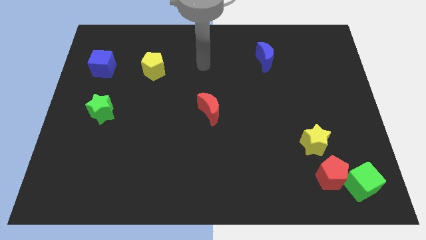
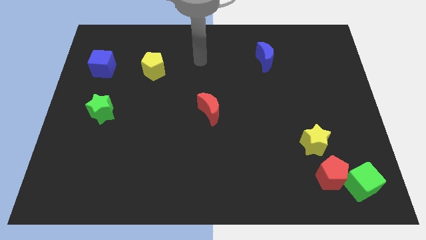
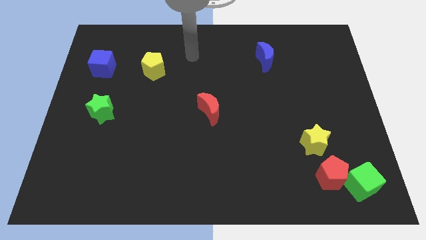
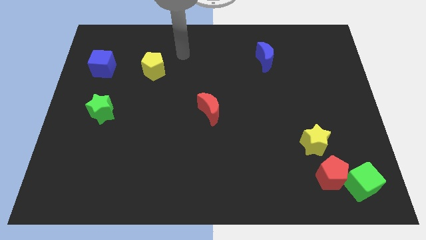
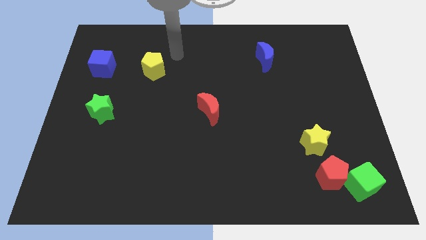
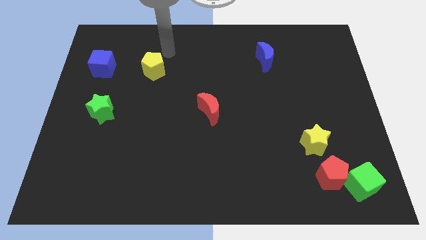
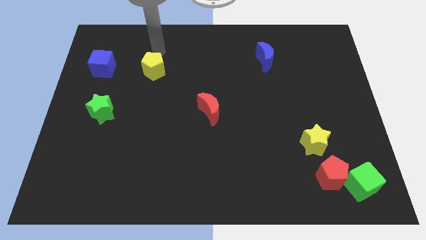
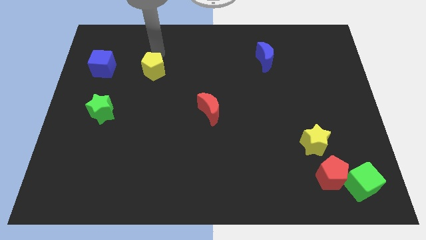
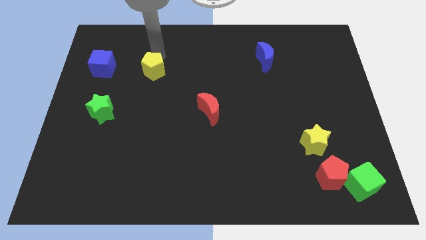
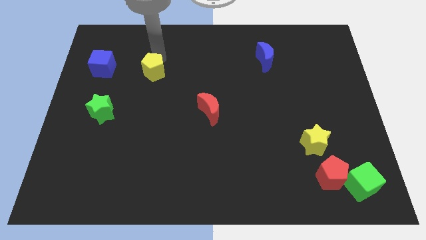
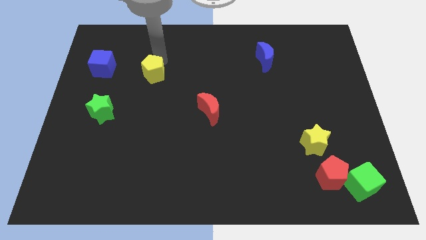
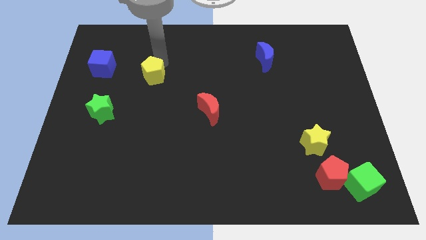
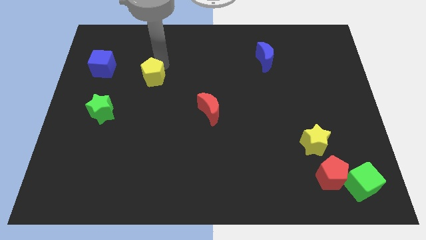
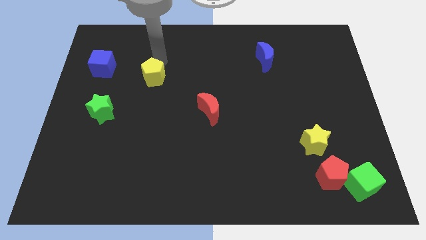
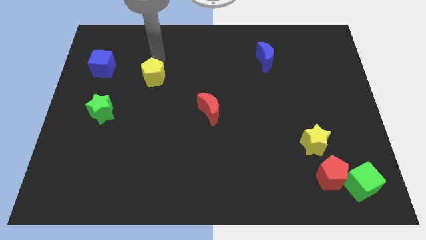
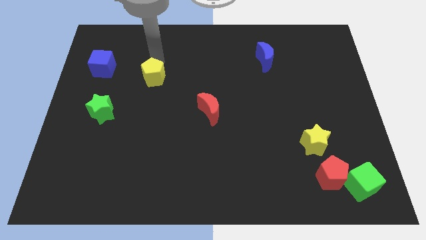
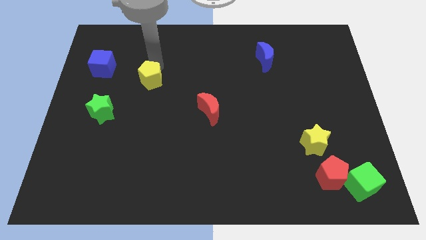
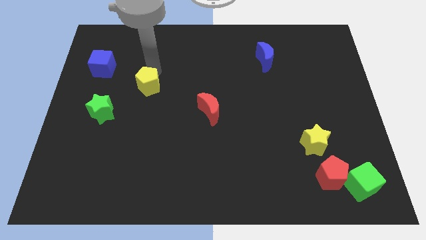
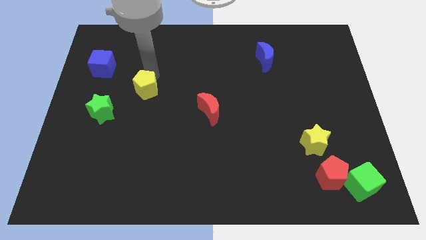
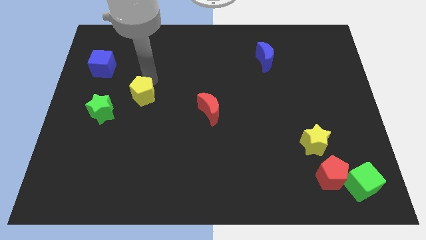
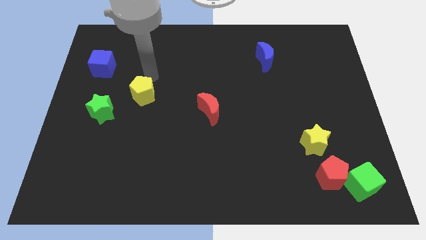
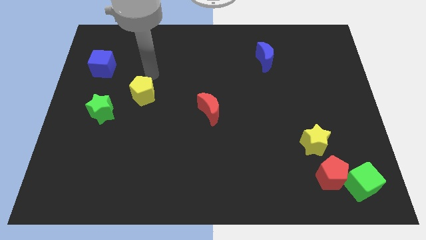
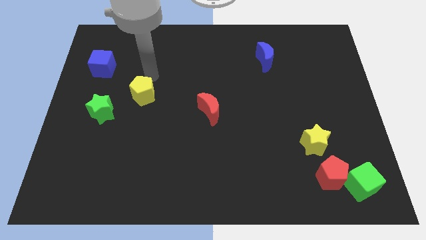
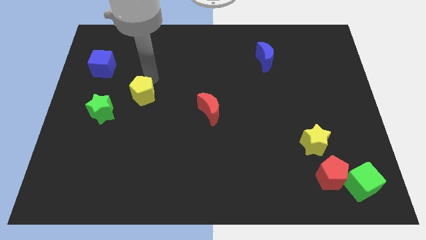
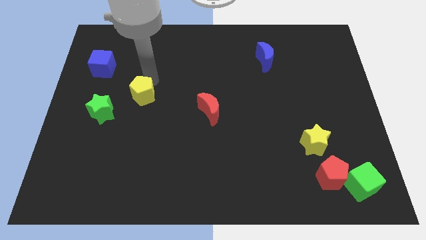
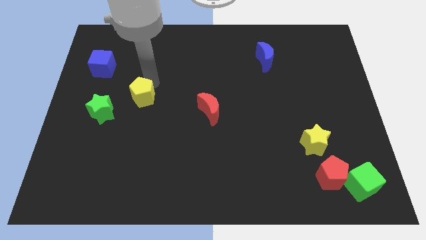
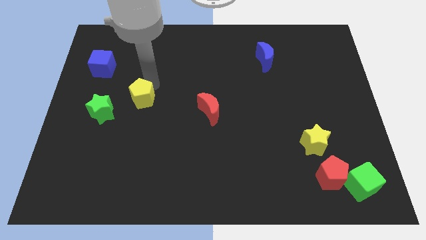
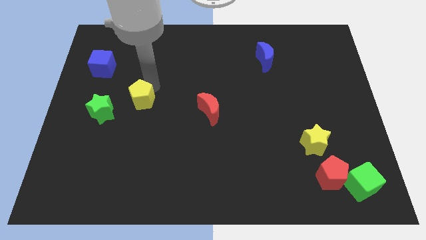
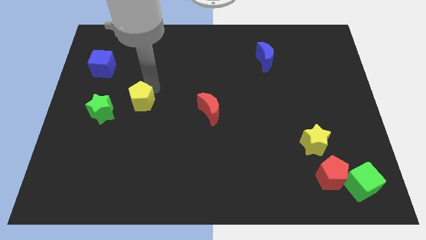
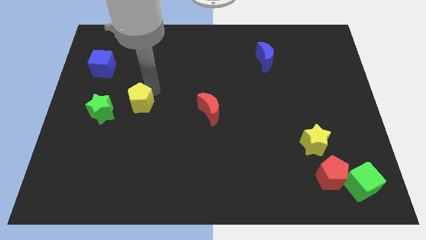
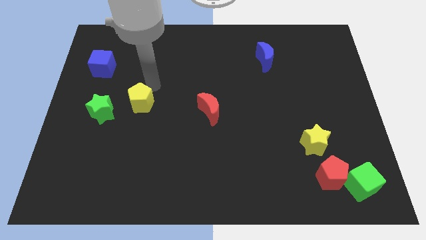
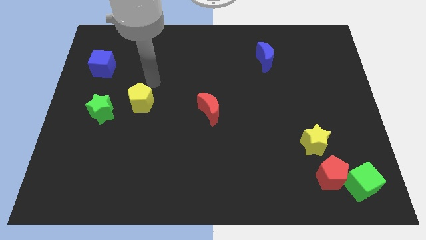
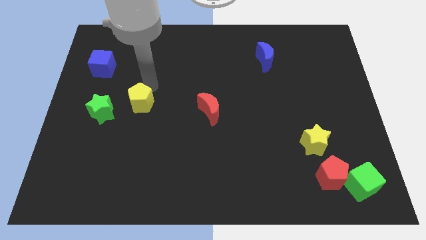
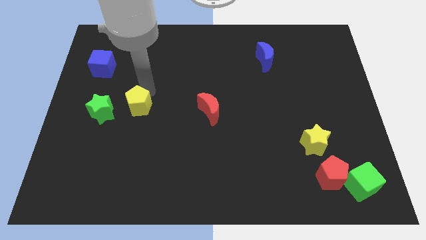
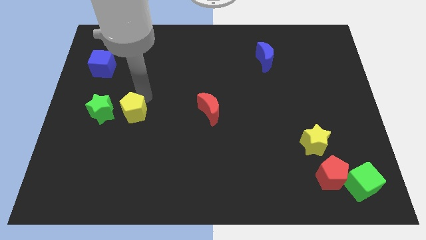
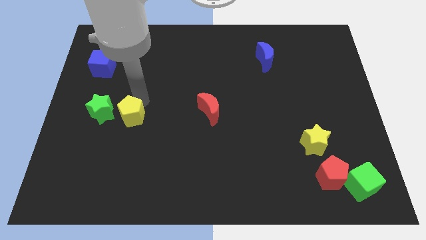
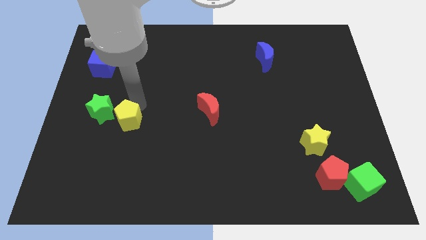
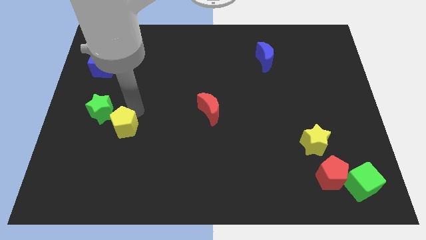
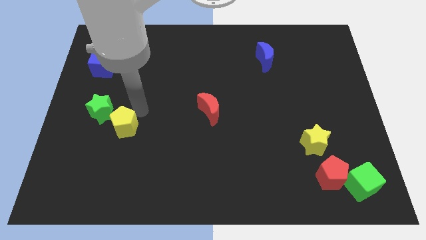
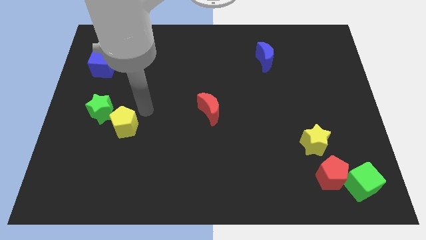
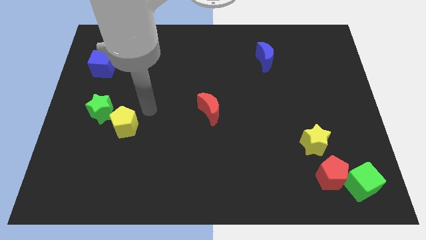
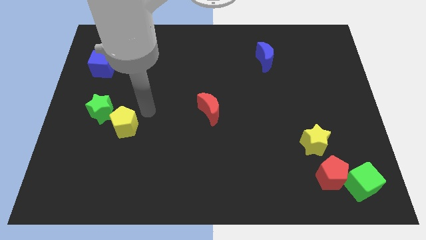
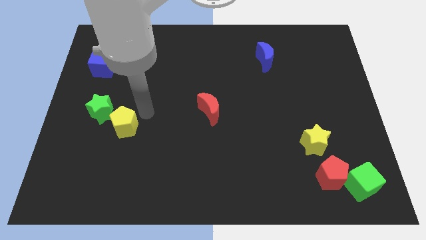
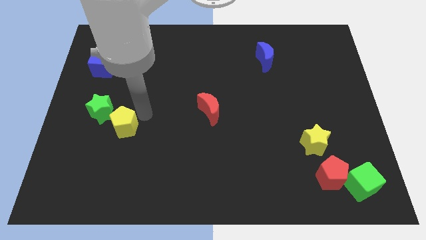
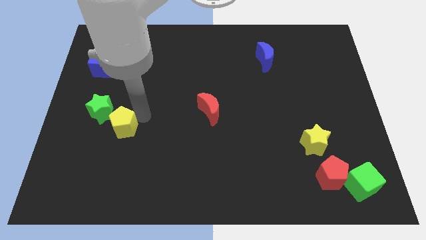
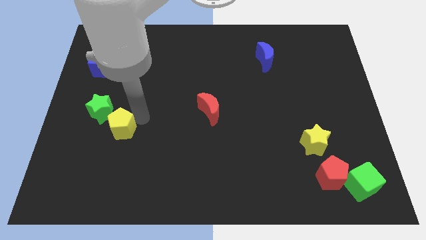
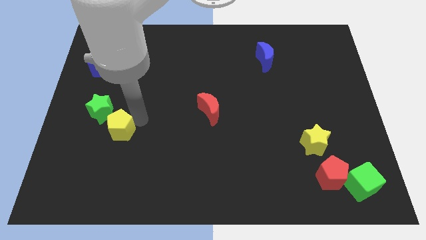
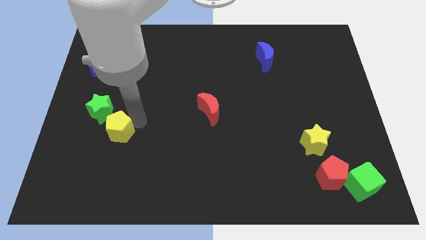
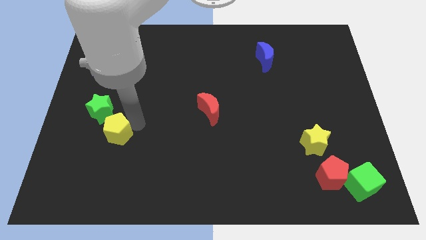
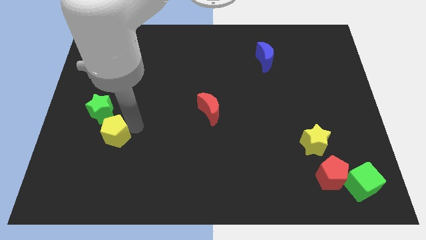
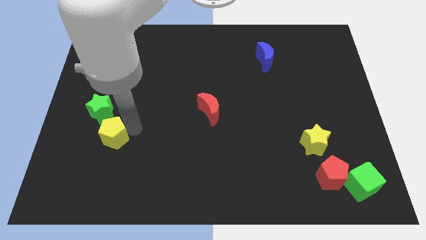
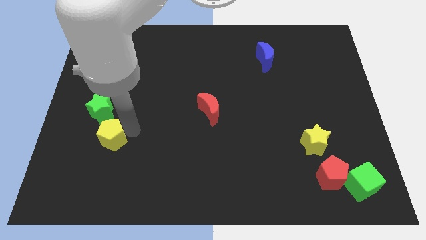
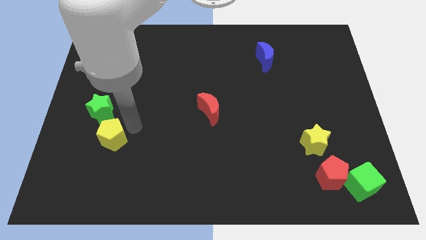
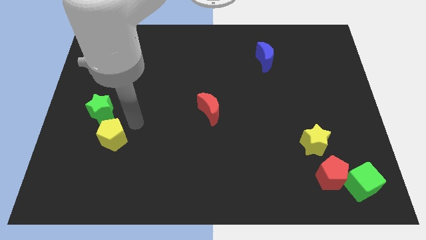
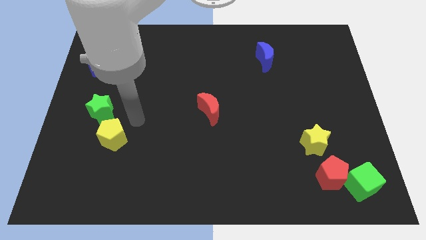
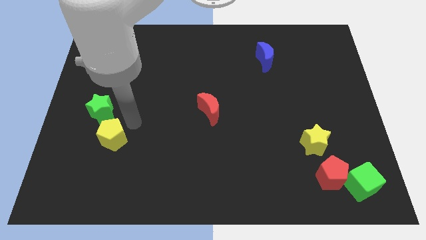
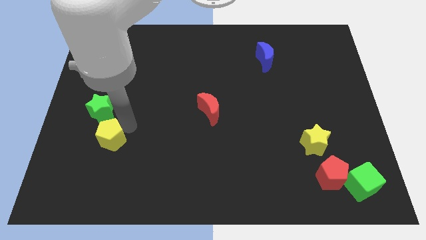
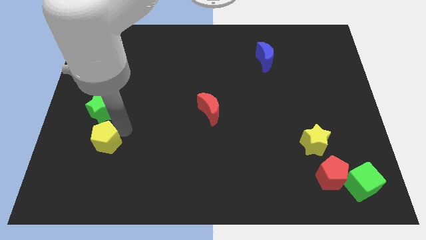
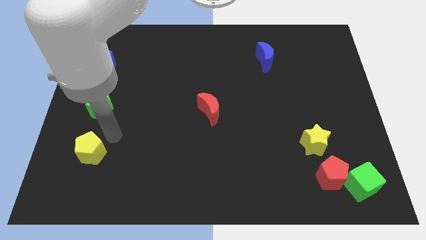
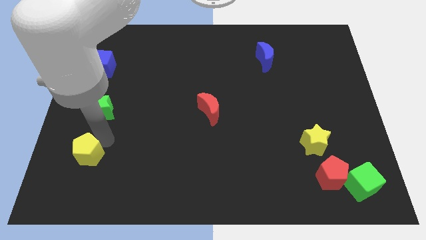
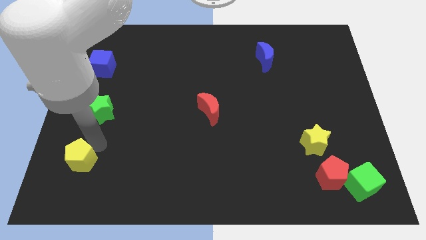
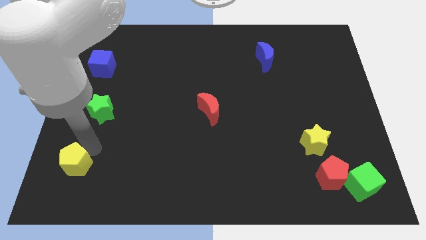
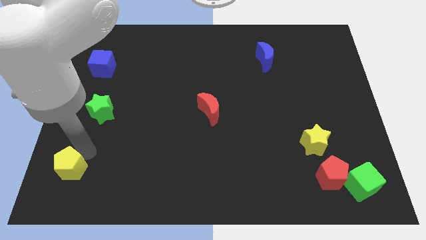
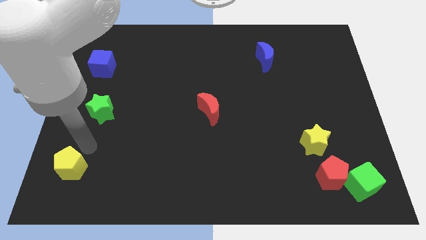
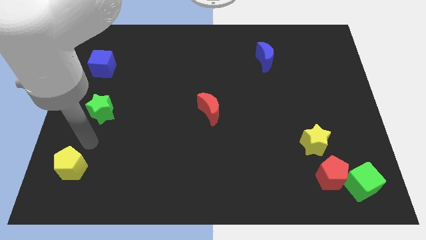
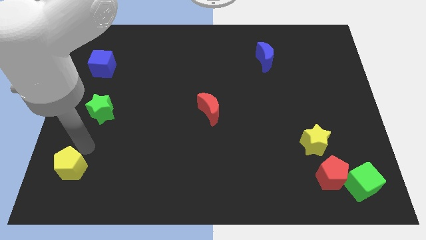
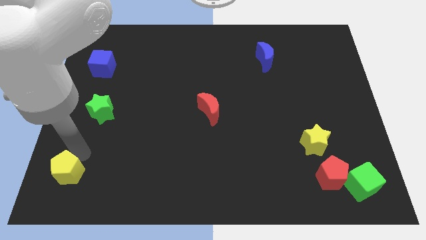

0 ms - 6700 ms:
slide the yellow pentagon to the lower left corner
